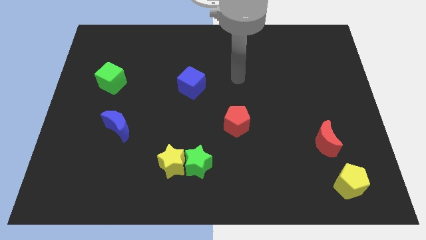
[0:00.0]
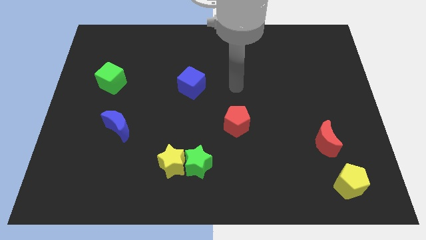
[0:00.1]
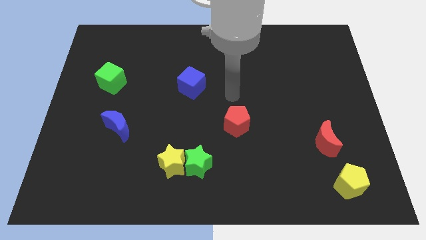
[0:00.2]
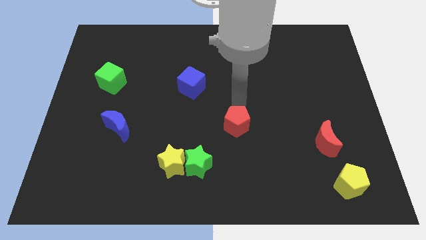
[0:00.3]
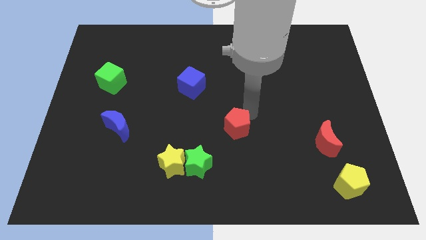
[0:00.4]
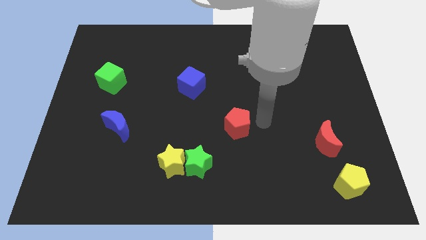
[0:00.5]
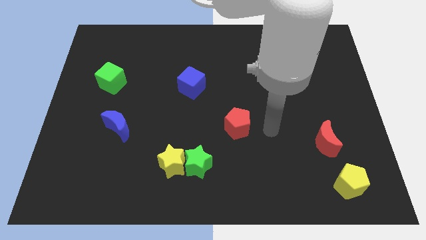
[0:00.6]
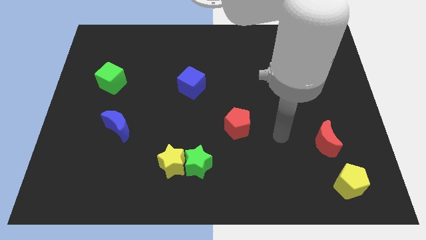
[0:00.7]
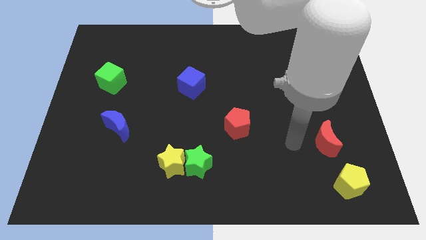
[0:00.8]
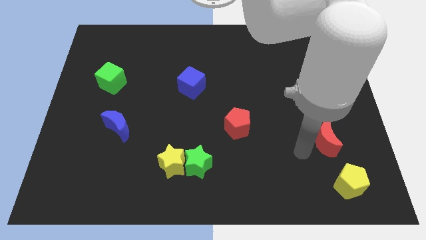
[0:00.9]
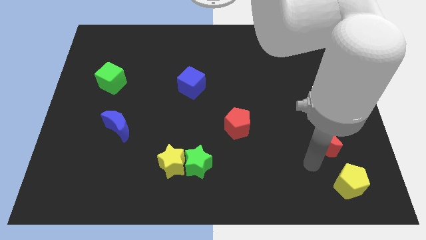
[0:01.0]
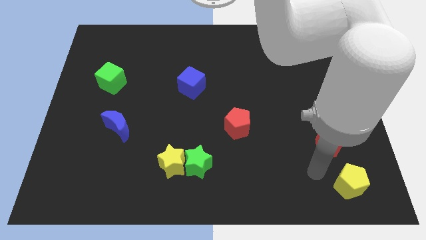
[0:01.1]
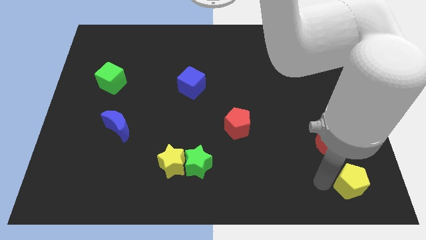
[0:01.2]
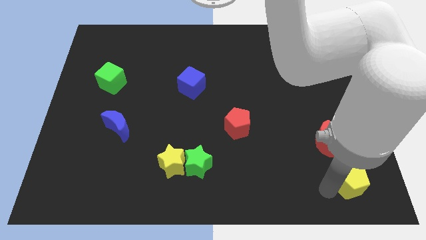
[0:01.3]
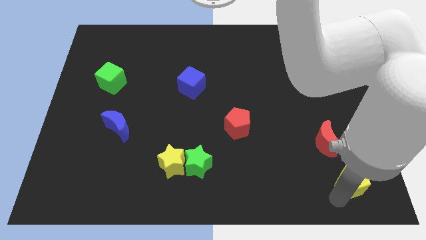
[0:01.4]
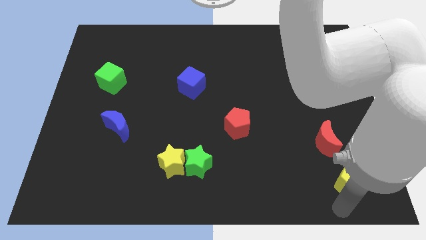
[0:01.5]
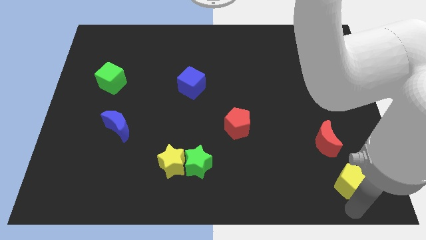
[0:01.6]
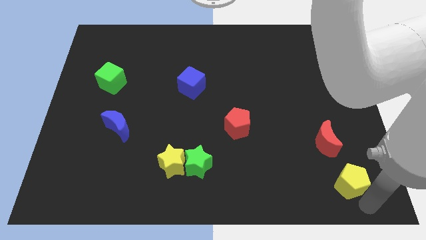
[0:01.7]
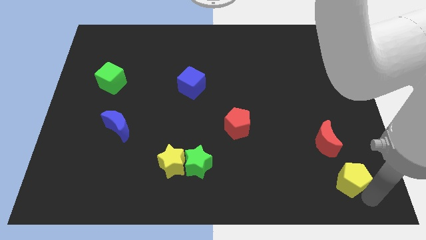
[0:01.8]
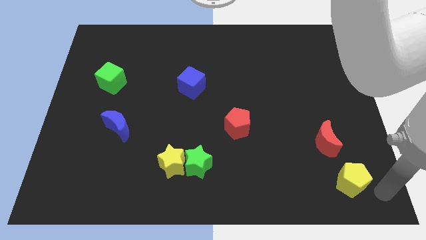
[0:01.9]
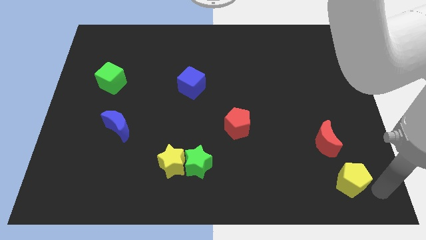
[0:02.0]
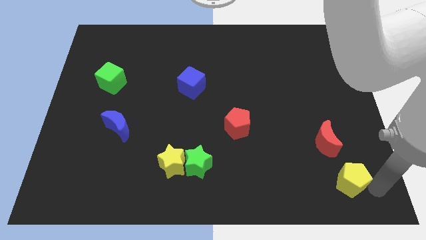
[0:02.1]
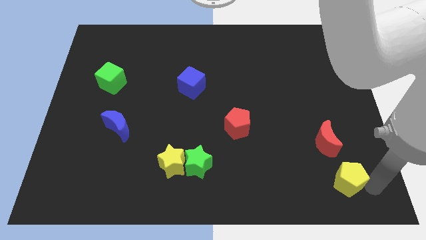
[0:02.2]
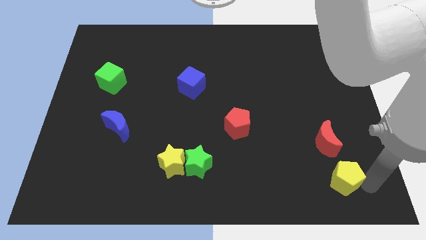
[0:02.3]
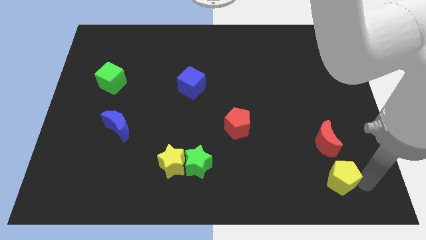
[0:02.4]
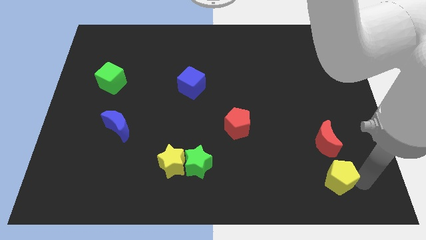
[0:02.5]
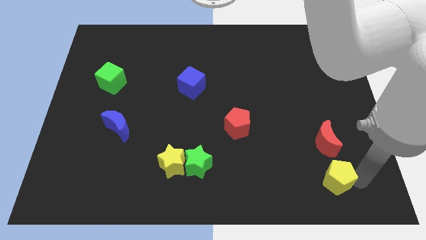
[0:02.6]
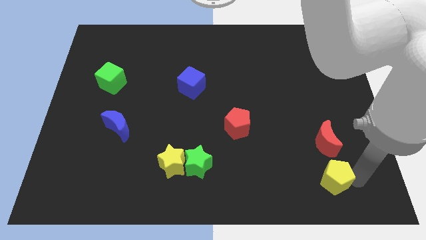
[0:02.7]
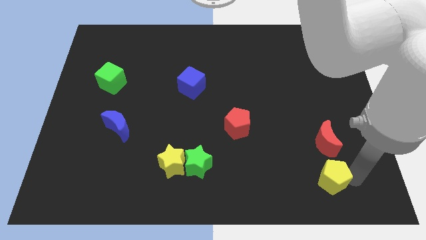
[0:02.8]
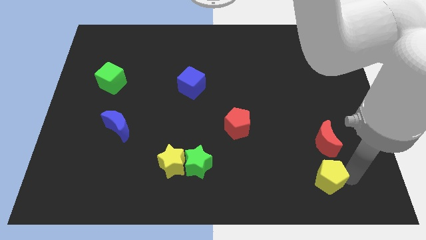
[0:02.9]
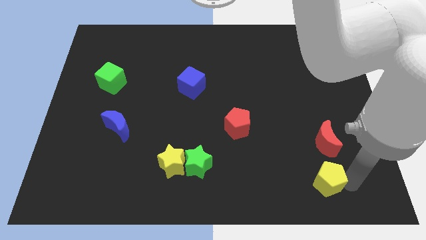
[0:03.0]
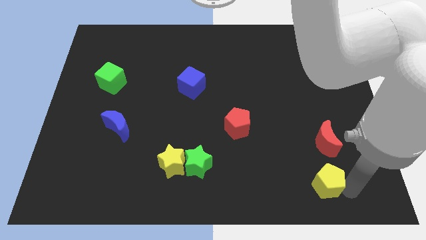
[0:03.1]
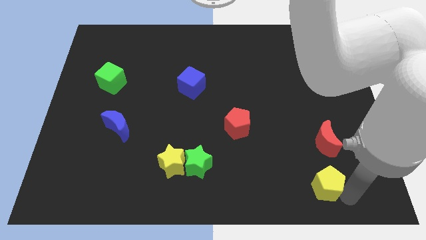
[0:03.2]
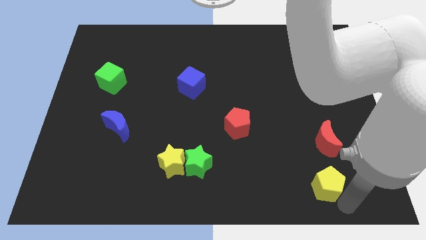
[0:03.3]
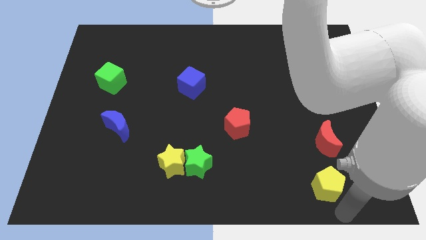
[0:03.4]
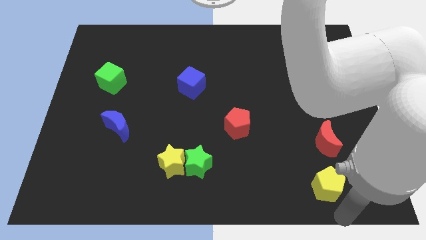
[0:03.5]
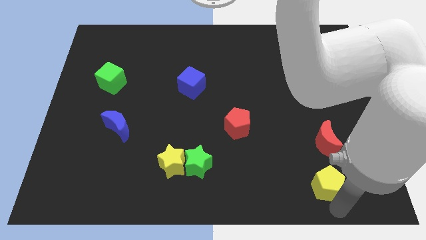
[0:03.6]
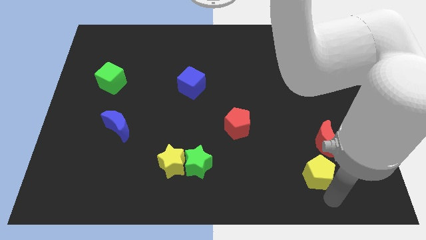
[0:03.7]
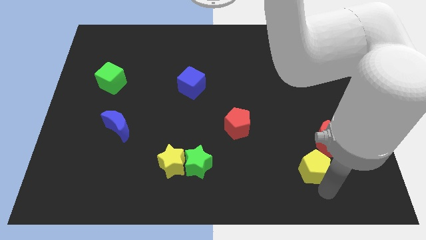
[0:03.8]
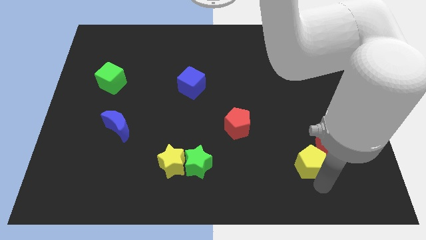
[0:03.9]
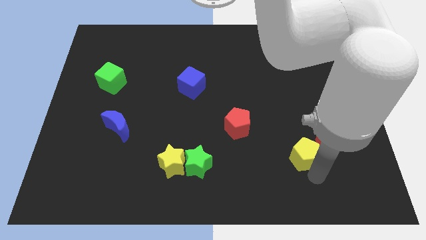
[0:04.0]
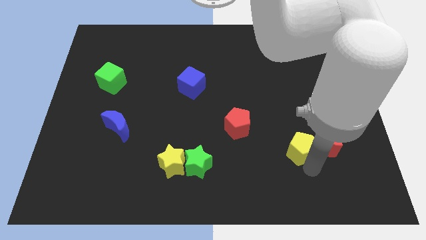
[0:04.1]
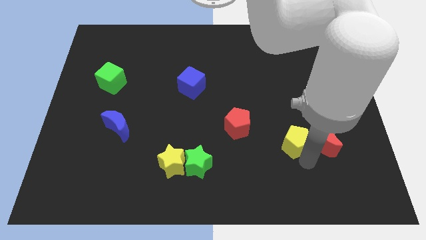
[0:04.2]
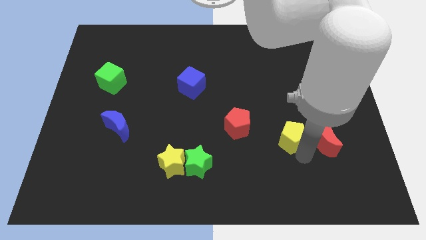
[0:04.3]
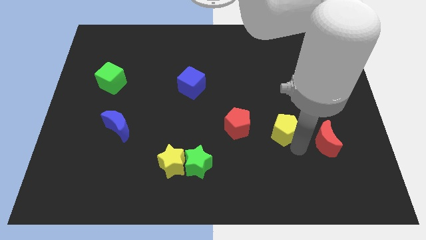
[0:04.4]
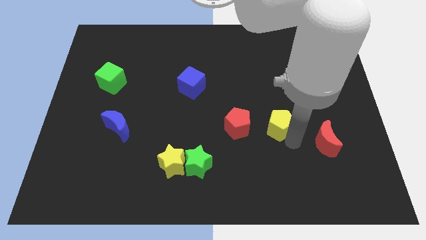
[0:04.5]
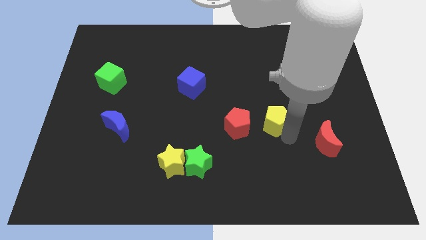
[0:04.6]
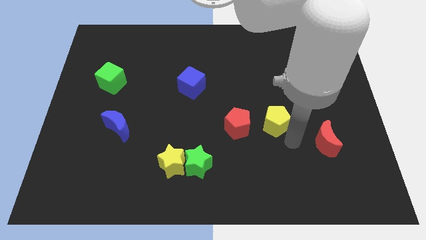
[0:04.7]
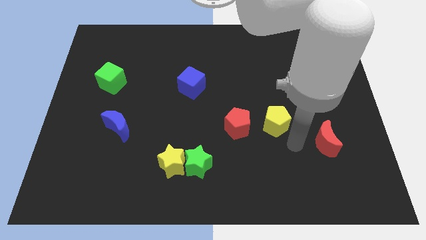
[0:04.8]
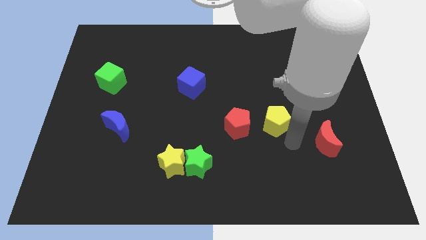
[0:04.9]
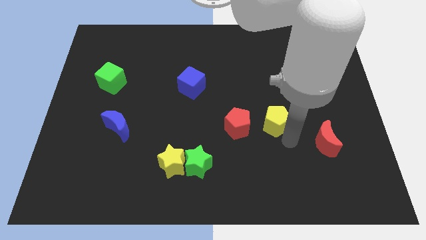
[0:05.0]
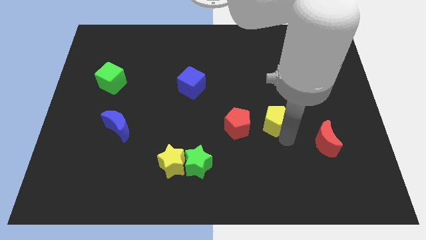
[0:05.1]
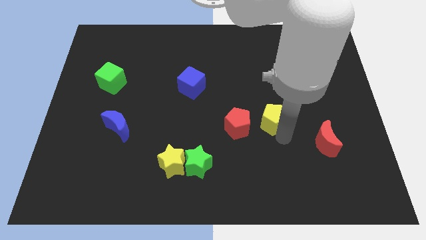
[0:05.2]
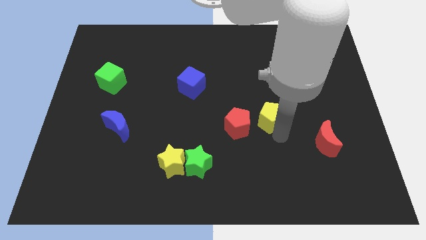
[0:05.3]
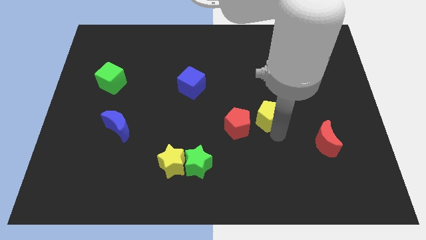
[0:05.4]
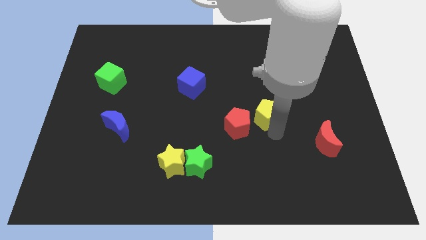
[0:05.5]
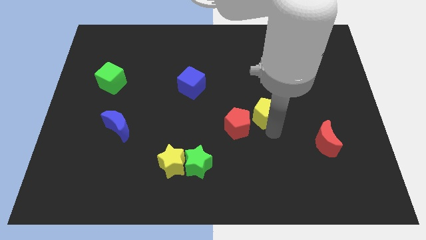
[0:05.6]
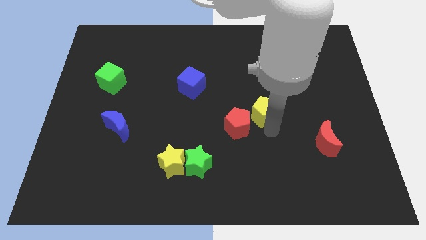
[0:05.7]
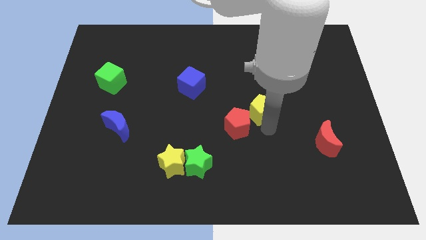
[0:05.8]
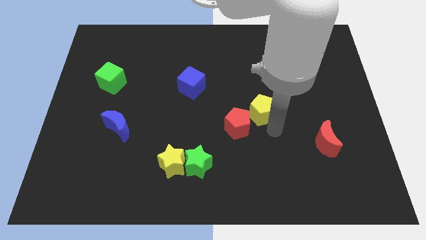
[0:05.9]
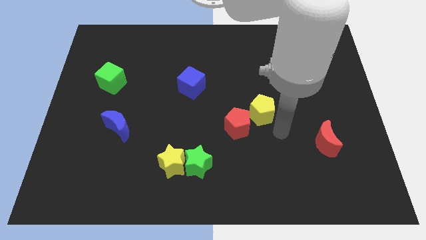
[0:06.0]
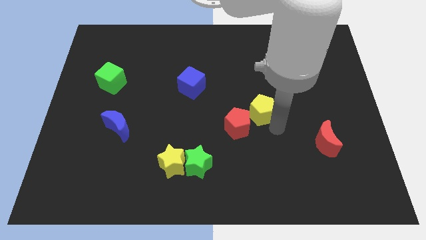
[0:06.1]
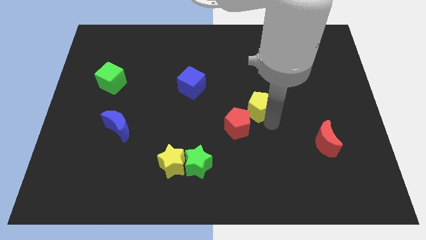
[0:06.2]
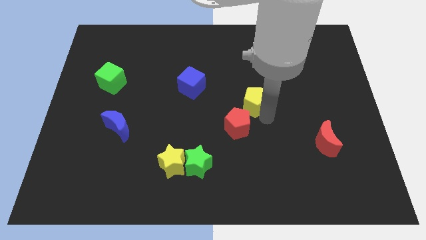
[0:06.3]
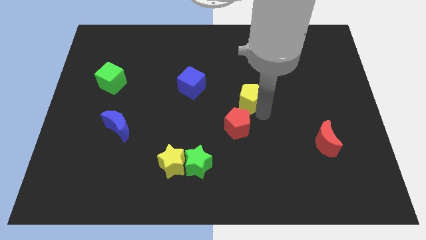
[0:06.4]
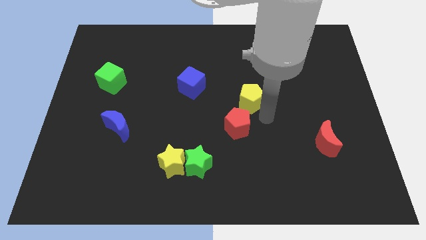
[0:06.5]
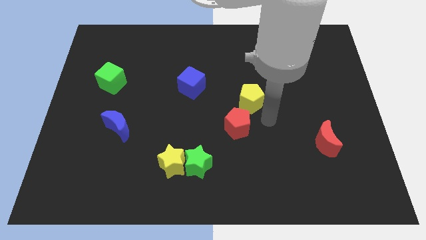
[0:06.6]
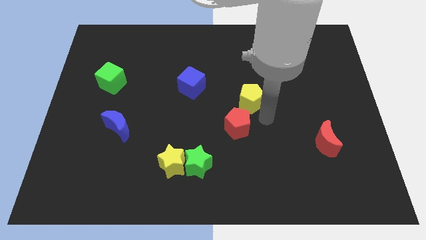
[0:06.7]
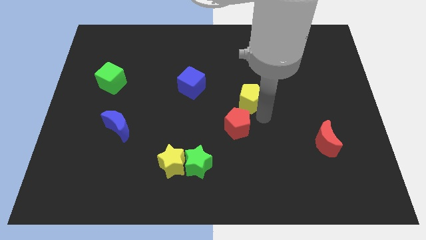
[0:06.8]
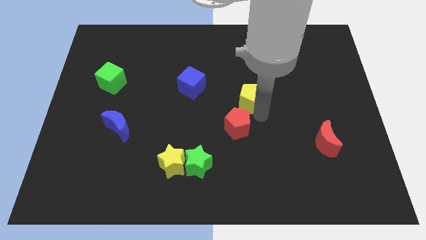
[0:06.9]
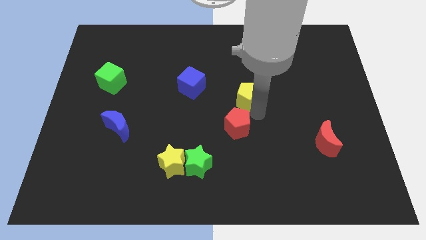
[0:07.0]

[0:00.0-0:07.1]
slide the yellow pentagon just right of the blue cube

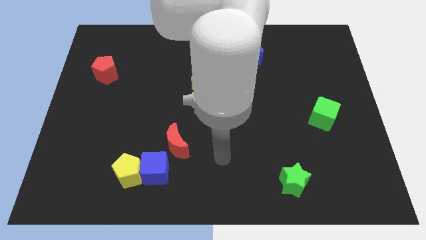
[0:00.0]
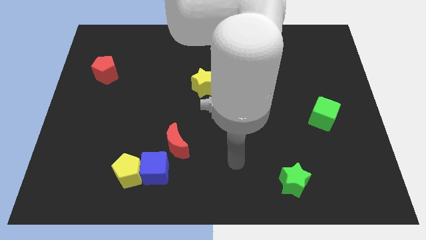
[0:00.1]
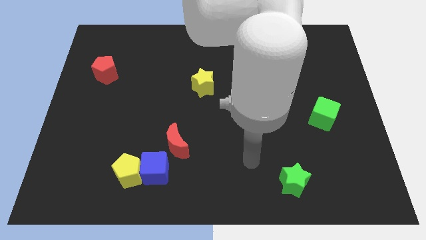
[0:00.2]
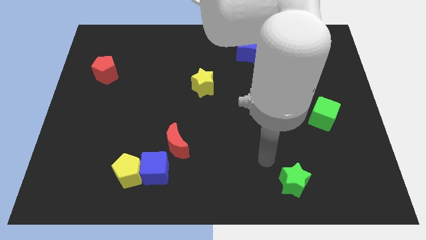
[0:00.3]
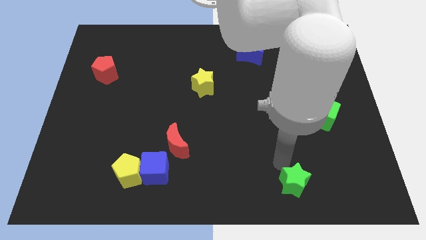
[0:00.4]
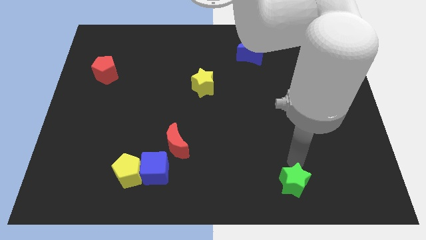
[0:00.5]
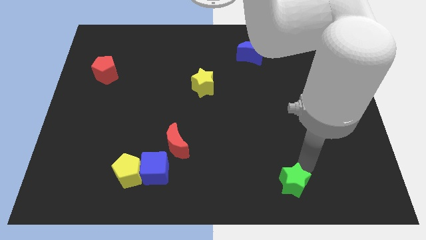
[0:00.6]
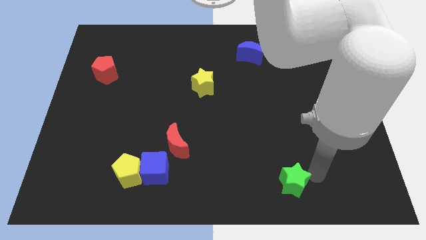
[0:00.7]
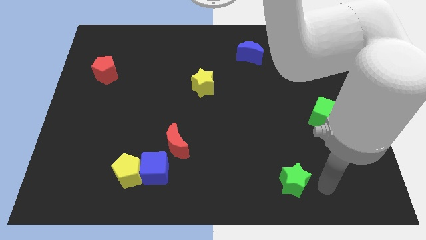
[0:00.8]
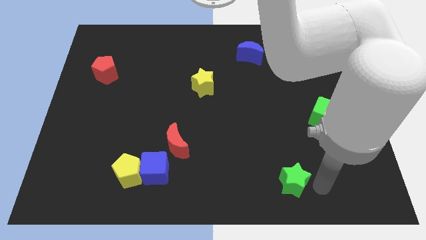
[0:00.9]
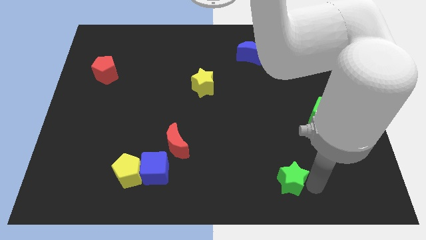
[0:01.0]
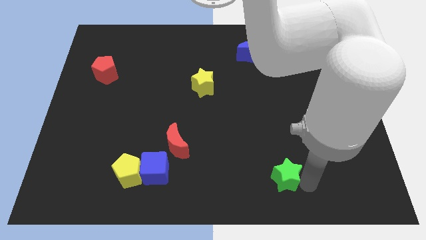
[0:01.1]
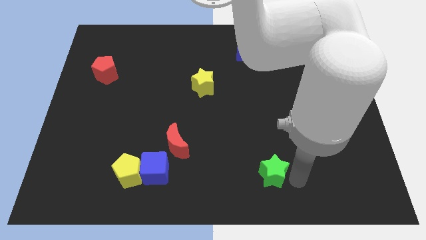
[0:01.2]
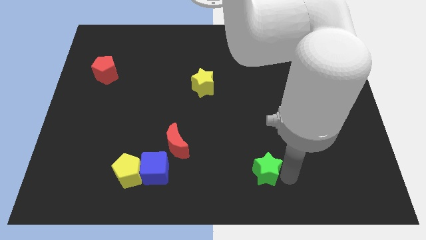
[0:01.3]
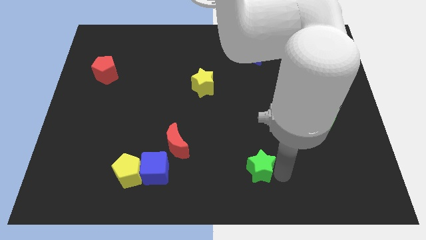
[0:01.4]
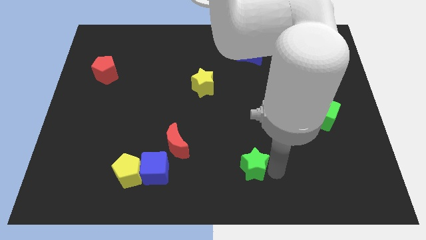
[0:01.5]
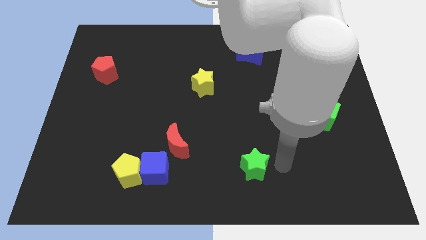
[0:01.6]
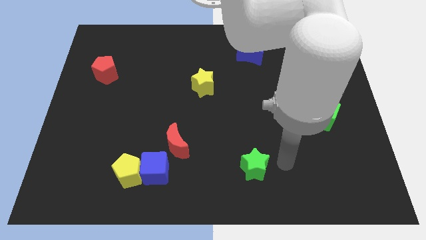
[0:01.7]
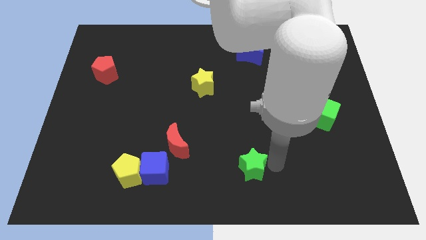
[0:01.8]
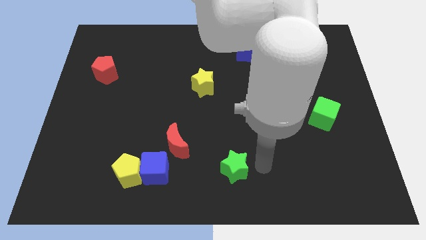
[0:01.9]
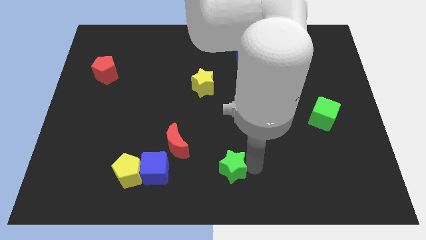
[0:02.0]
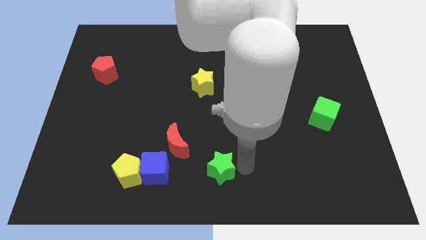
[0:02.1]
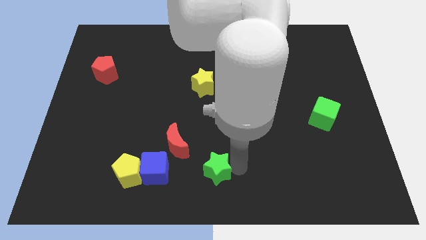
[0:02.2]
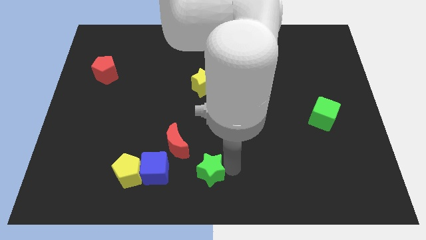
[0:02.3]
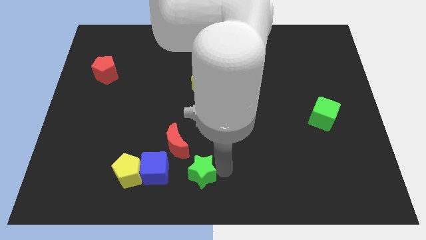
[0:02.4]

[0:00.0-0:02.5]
push the green star right of the yellow pentagon
